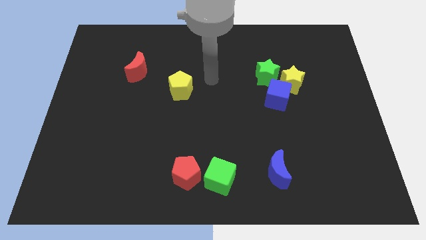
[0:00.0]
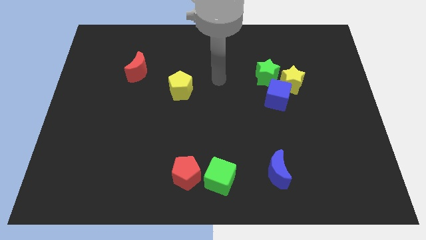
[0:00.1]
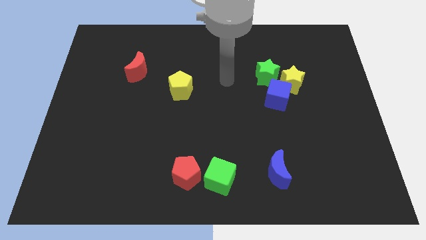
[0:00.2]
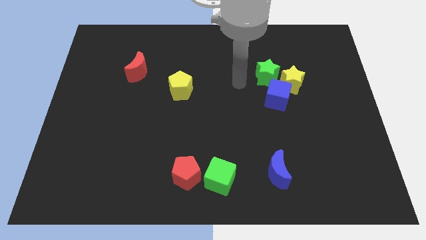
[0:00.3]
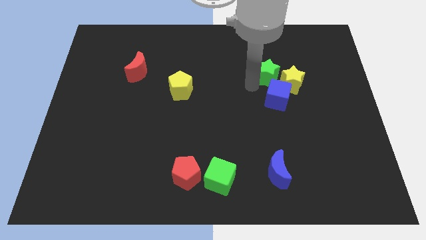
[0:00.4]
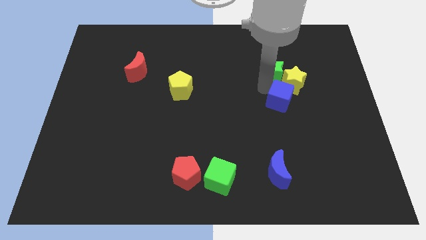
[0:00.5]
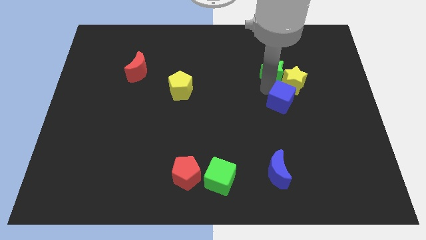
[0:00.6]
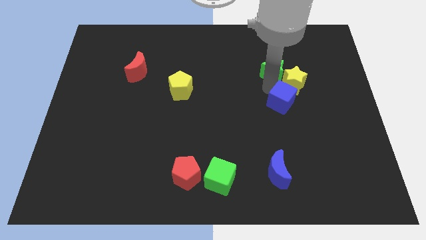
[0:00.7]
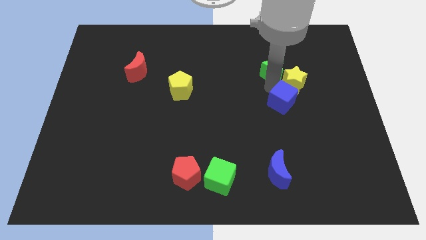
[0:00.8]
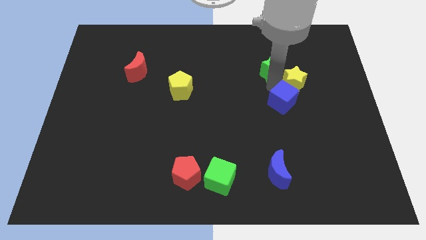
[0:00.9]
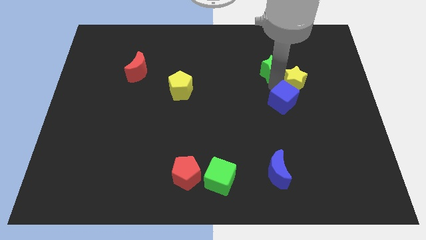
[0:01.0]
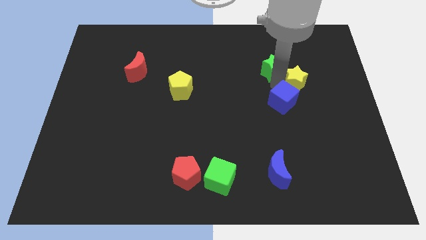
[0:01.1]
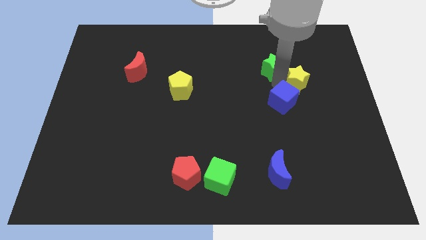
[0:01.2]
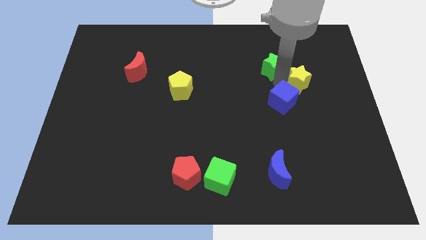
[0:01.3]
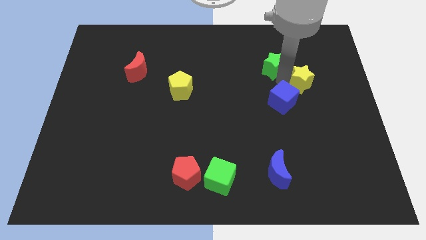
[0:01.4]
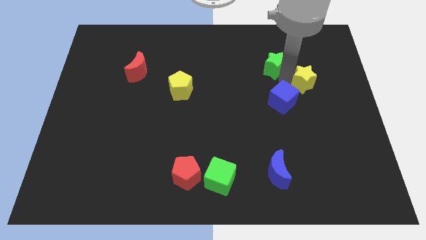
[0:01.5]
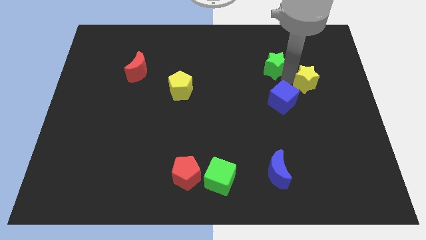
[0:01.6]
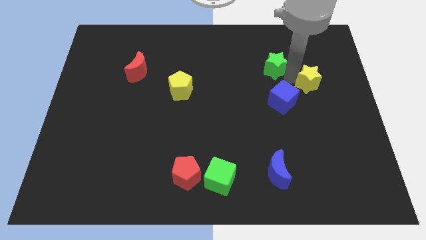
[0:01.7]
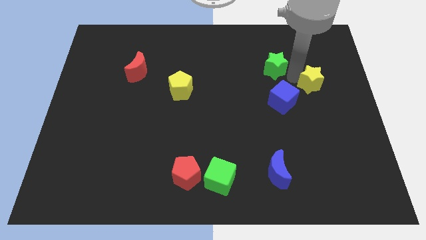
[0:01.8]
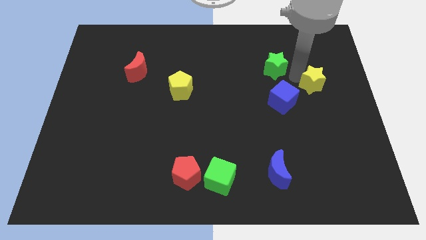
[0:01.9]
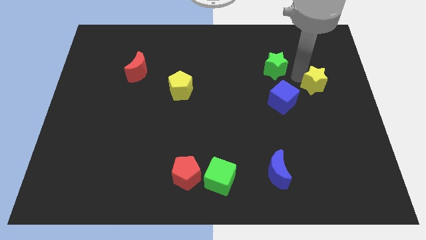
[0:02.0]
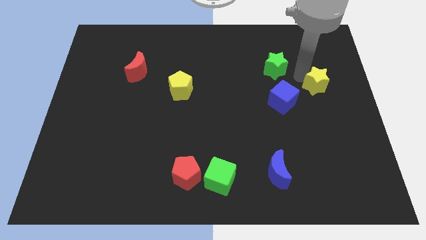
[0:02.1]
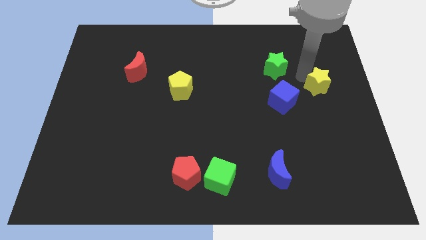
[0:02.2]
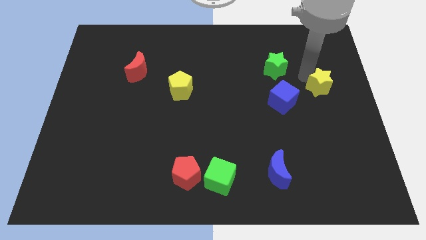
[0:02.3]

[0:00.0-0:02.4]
pull the yellow star apart from the blue cube and green star

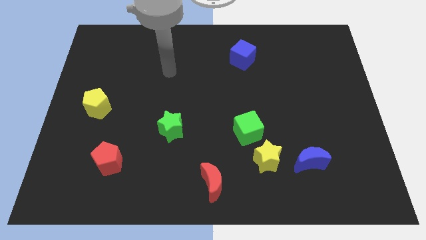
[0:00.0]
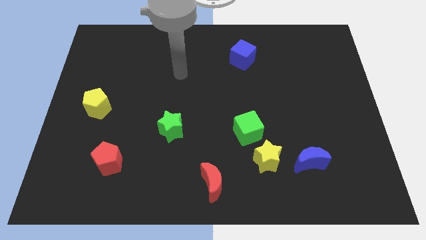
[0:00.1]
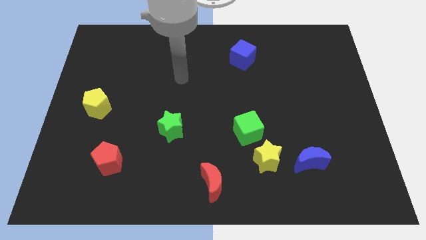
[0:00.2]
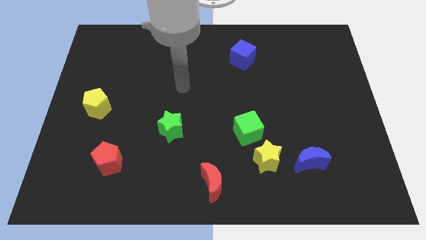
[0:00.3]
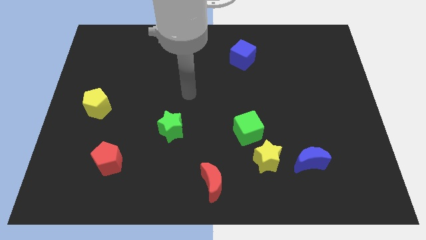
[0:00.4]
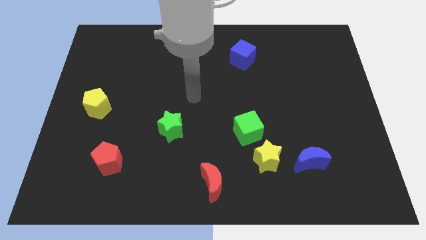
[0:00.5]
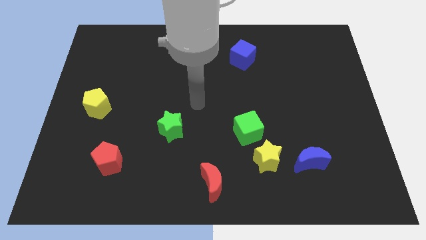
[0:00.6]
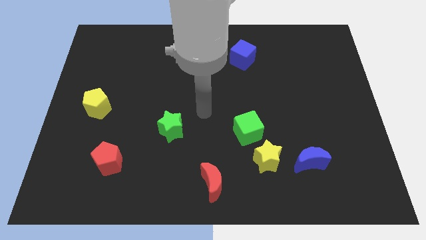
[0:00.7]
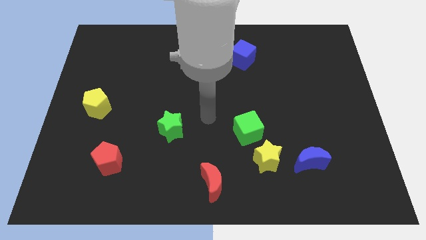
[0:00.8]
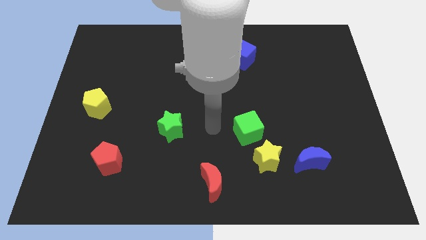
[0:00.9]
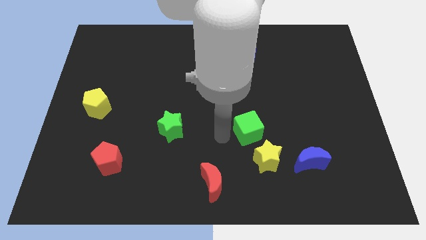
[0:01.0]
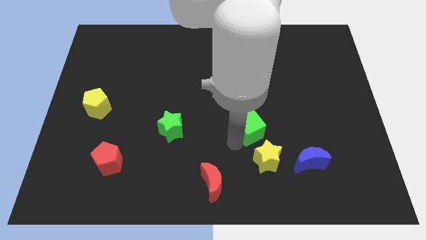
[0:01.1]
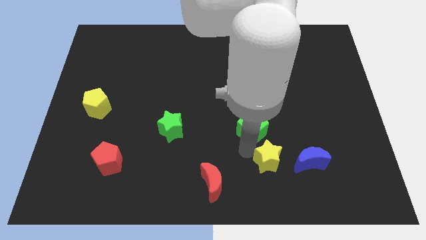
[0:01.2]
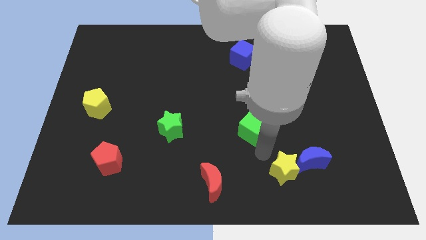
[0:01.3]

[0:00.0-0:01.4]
pull the green cube apart from the yellow star

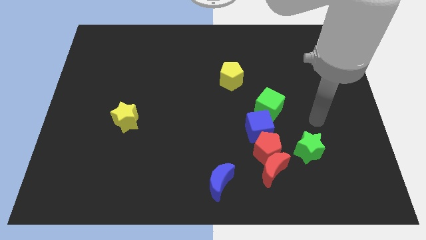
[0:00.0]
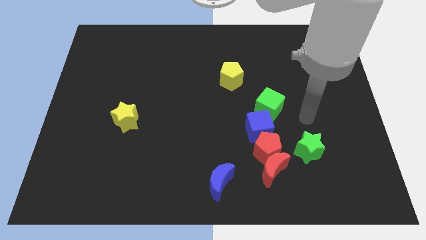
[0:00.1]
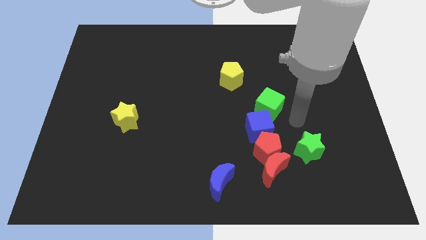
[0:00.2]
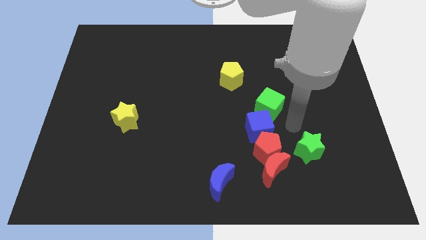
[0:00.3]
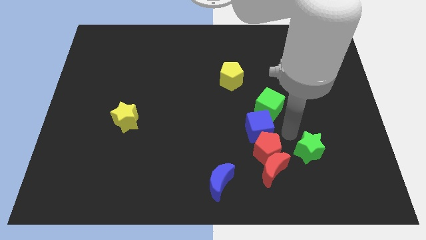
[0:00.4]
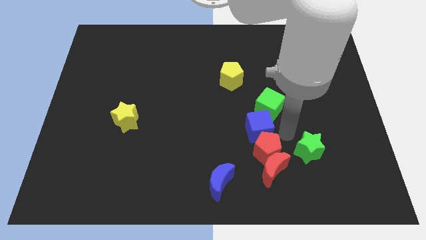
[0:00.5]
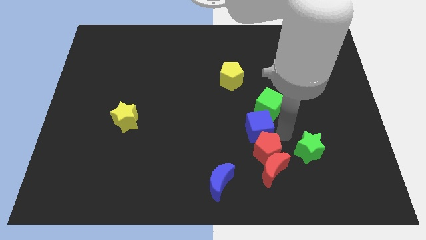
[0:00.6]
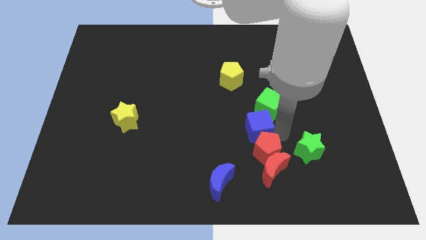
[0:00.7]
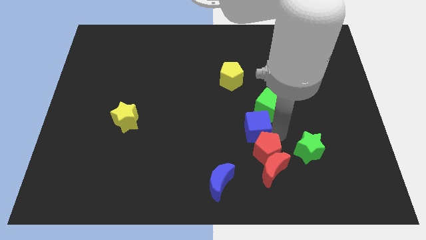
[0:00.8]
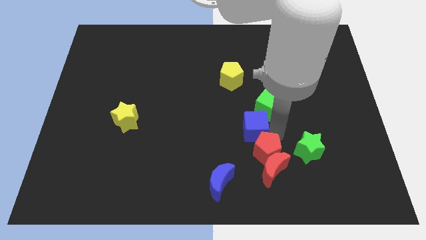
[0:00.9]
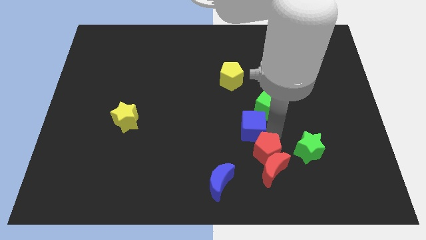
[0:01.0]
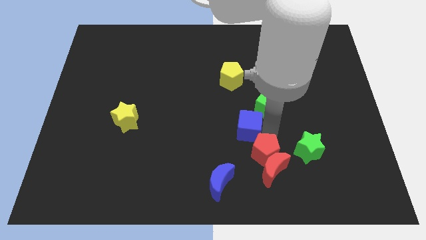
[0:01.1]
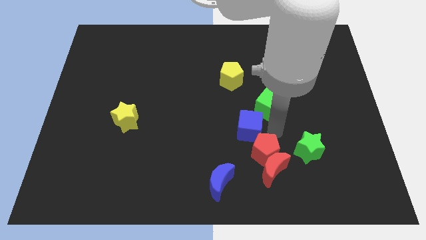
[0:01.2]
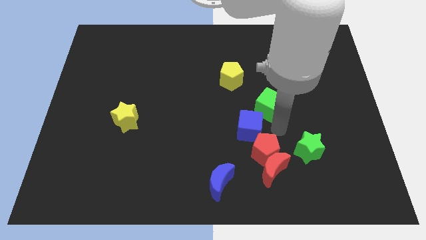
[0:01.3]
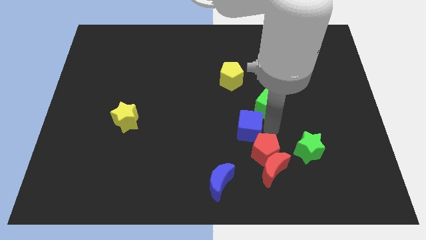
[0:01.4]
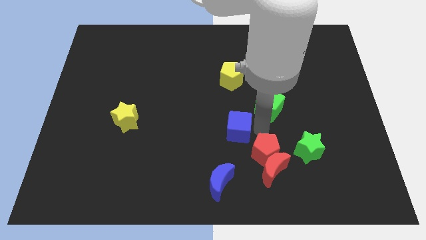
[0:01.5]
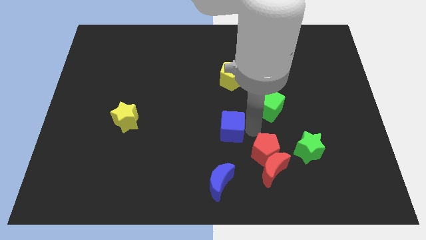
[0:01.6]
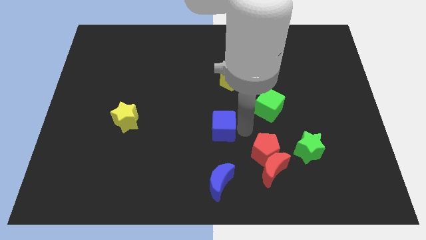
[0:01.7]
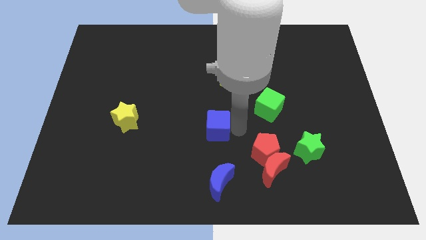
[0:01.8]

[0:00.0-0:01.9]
pull the blue cube apart from the red pentagon and green cube

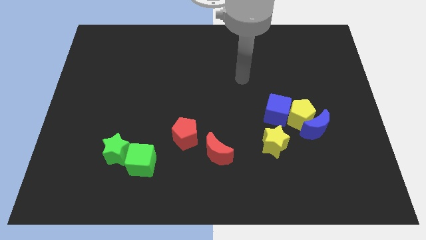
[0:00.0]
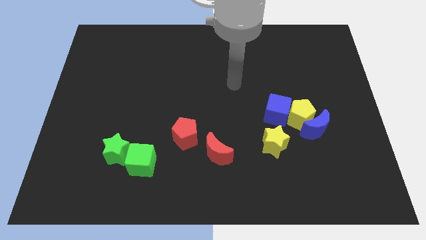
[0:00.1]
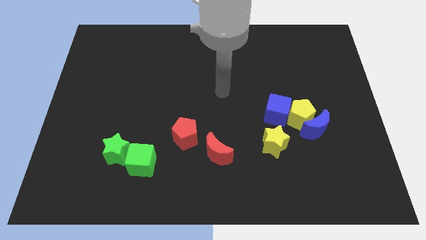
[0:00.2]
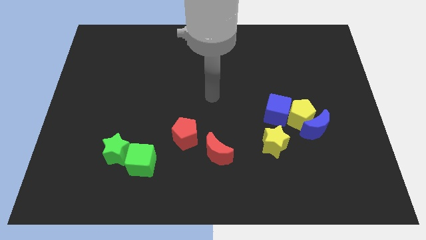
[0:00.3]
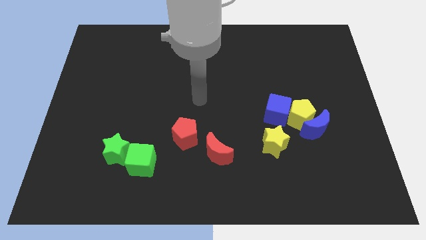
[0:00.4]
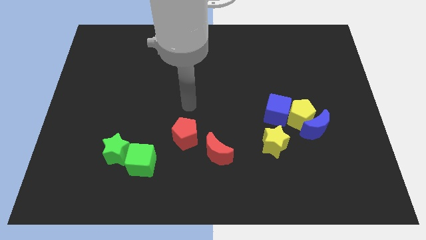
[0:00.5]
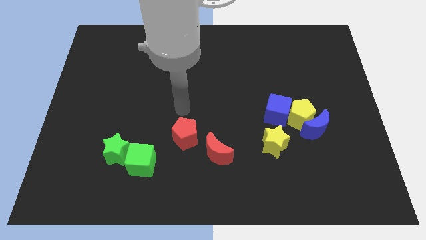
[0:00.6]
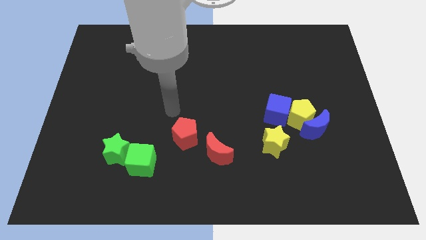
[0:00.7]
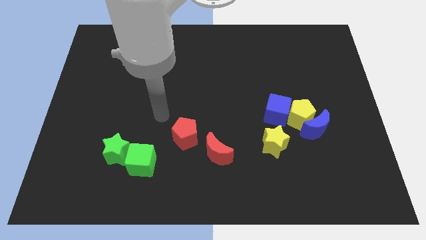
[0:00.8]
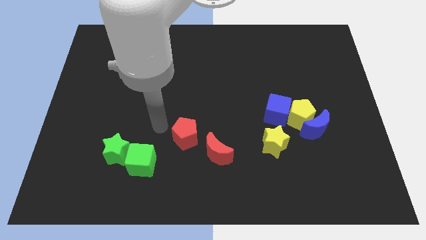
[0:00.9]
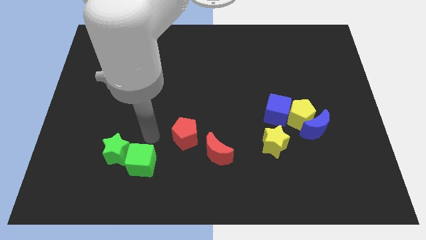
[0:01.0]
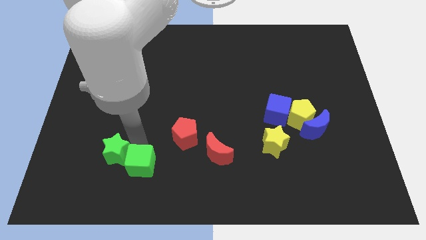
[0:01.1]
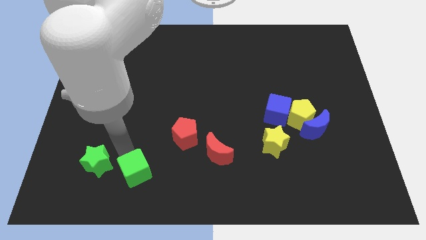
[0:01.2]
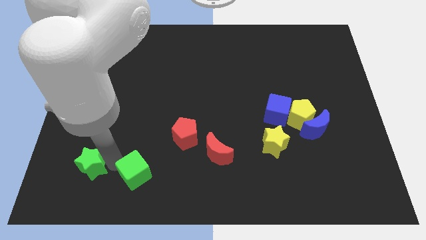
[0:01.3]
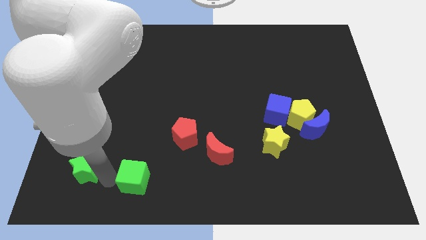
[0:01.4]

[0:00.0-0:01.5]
separate the green cube from the green star

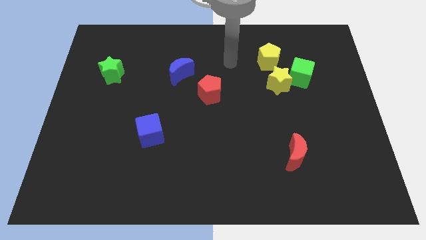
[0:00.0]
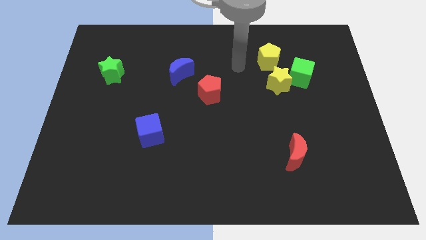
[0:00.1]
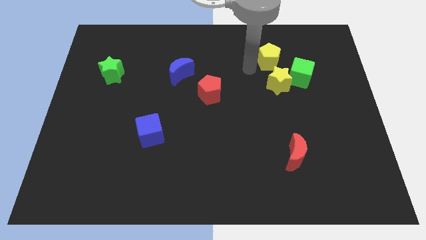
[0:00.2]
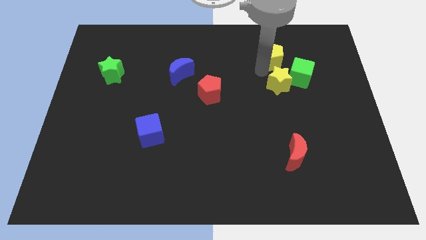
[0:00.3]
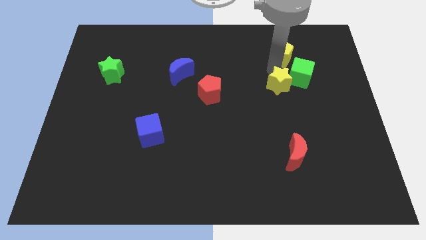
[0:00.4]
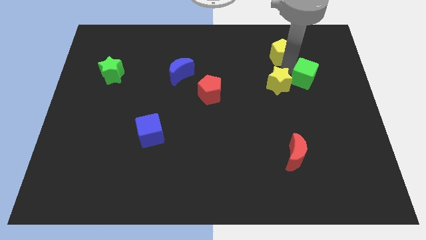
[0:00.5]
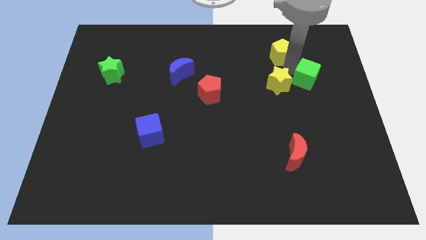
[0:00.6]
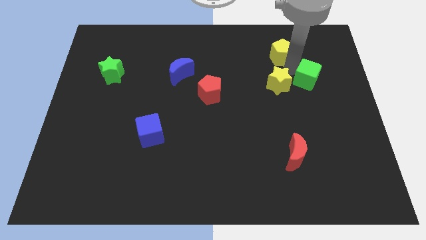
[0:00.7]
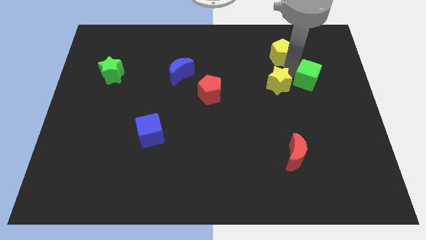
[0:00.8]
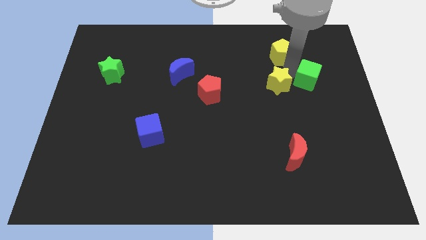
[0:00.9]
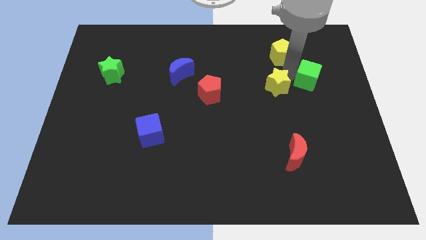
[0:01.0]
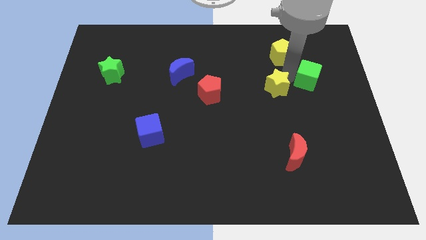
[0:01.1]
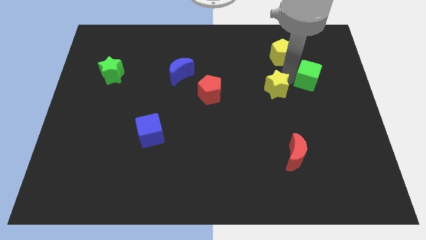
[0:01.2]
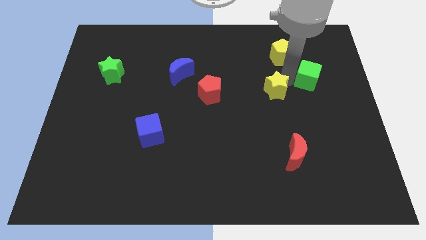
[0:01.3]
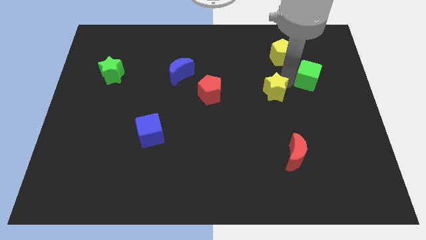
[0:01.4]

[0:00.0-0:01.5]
pull the yellow star apart from the green cube and yellow pentagon

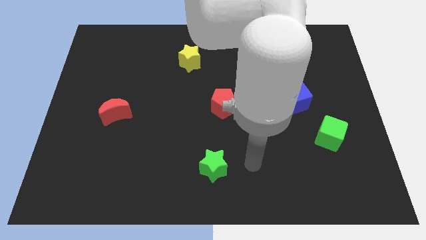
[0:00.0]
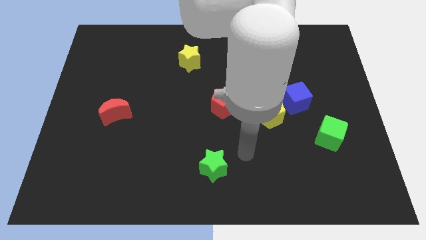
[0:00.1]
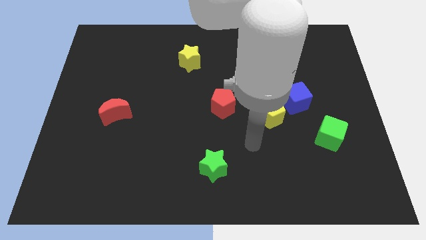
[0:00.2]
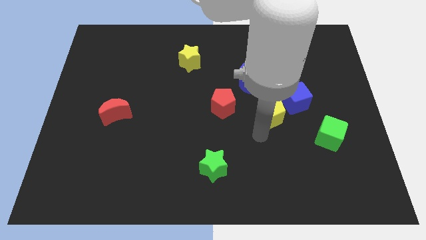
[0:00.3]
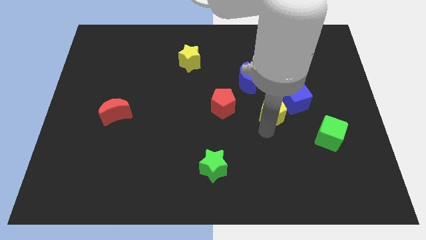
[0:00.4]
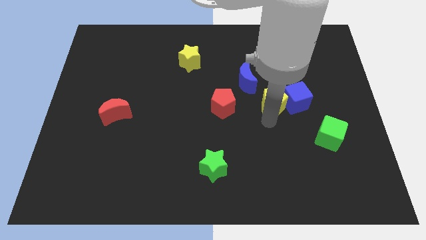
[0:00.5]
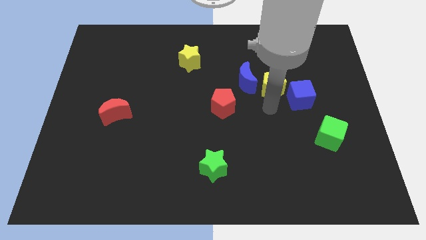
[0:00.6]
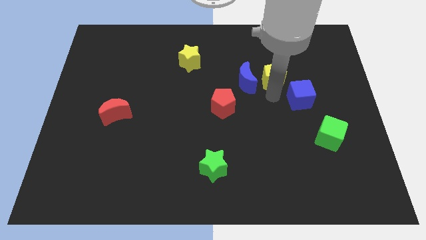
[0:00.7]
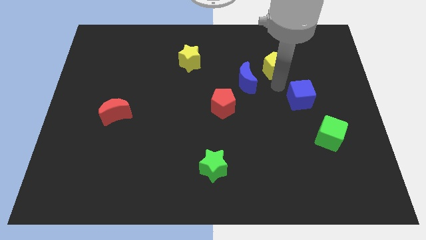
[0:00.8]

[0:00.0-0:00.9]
move the blue cube away from the yellow pentagon
